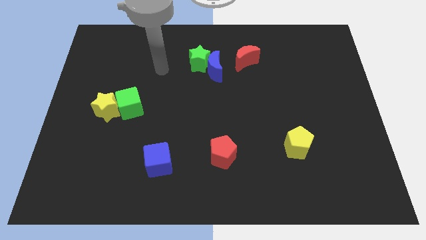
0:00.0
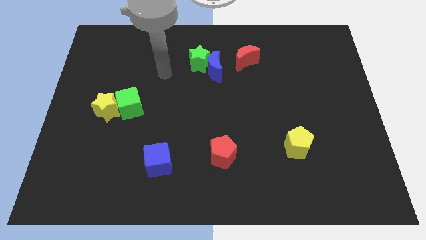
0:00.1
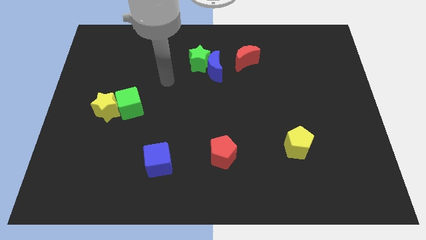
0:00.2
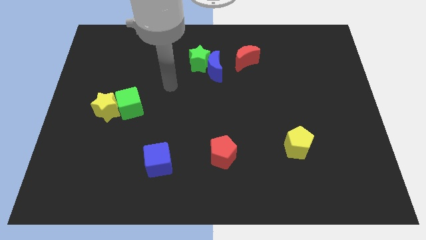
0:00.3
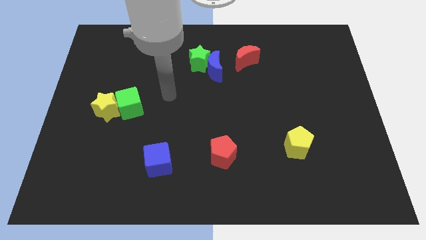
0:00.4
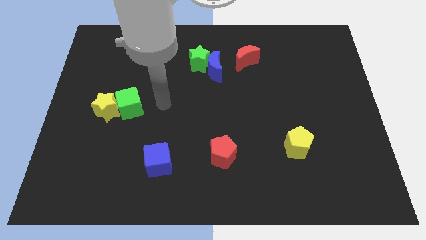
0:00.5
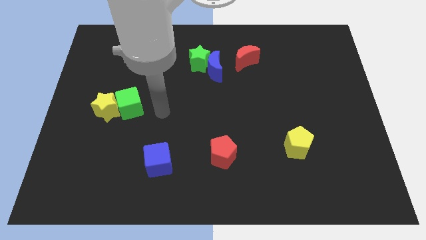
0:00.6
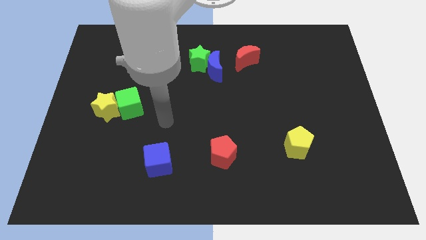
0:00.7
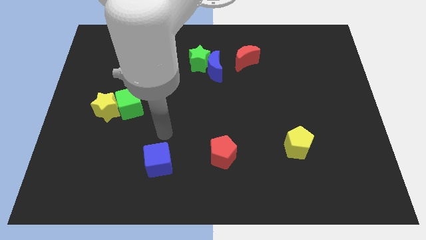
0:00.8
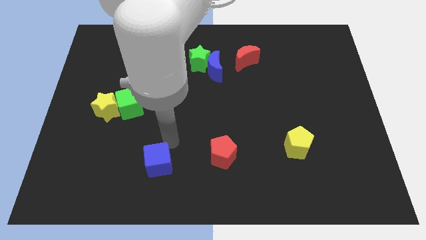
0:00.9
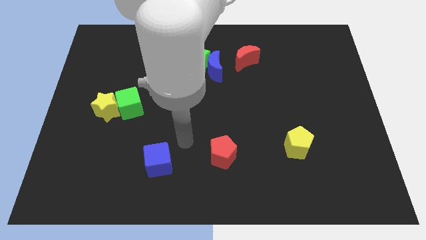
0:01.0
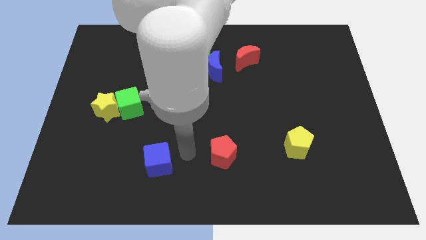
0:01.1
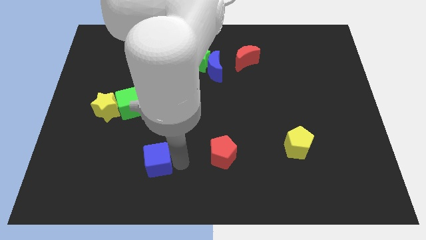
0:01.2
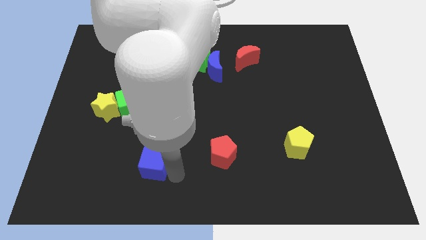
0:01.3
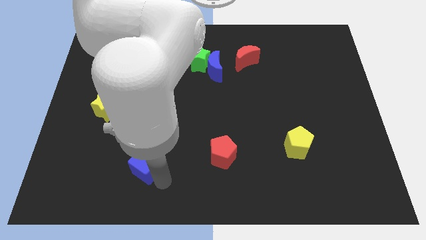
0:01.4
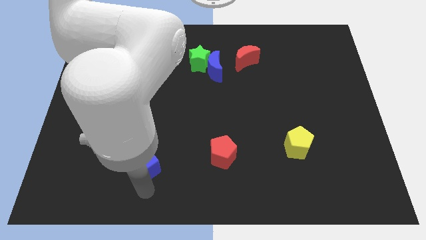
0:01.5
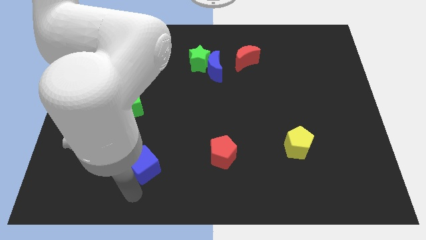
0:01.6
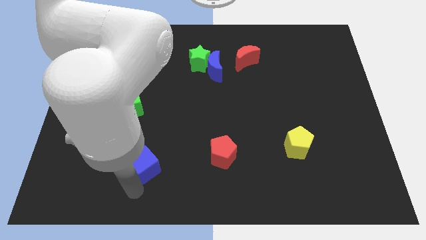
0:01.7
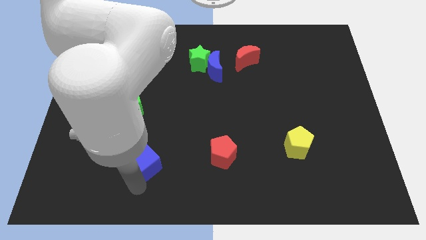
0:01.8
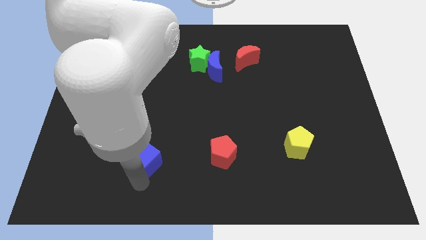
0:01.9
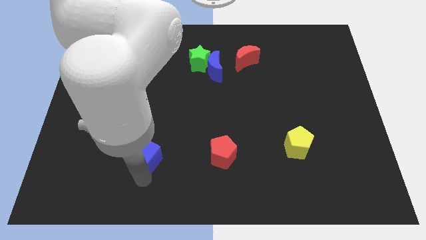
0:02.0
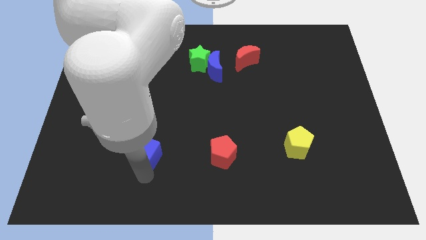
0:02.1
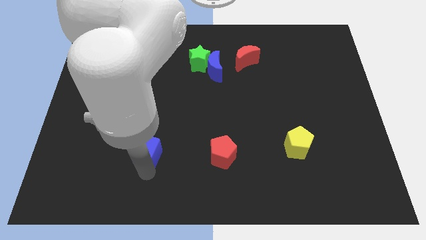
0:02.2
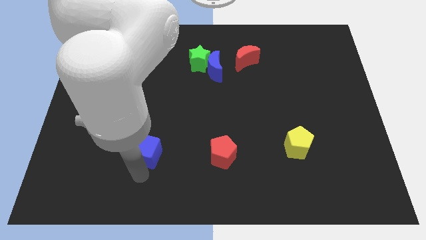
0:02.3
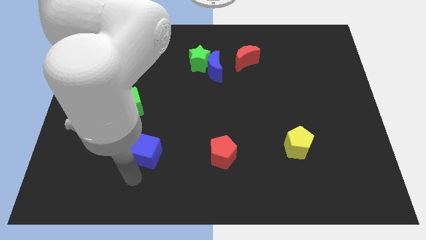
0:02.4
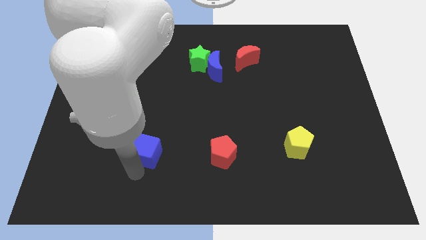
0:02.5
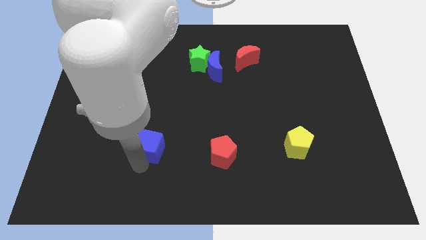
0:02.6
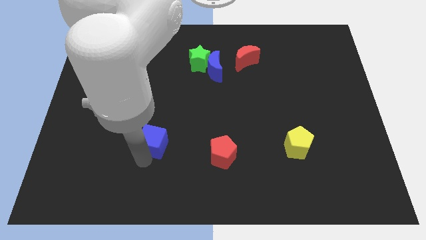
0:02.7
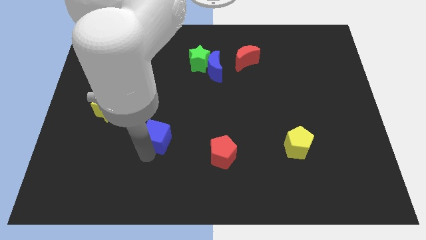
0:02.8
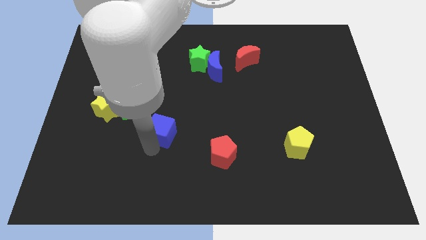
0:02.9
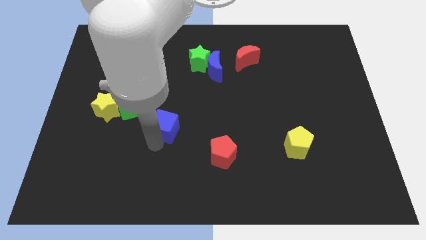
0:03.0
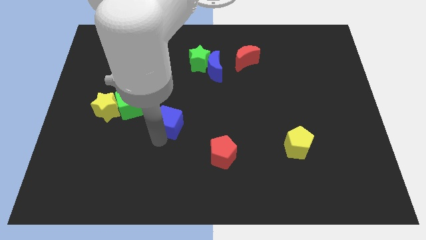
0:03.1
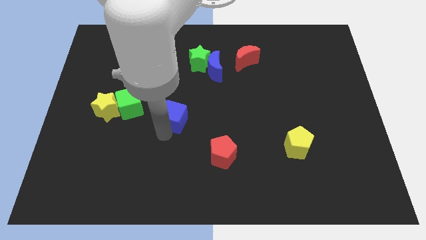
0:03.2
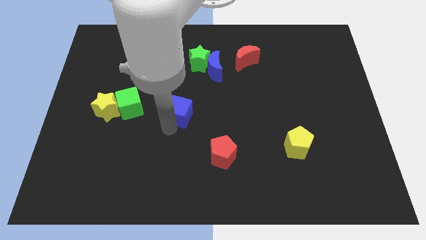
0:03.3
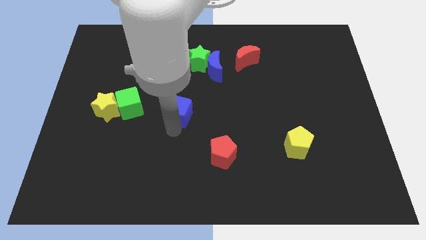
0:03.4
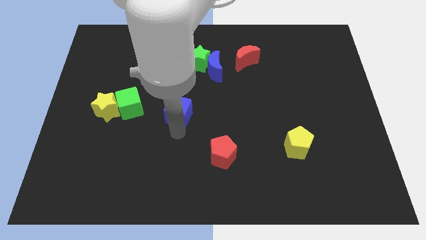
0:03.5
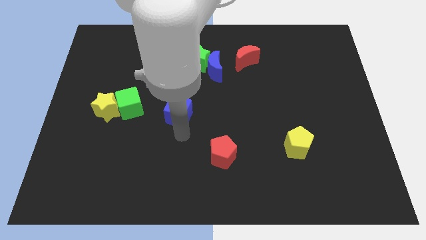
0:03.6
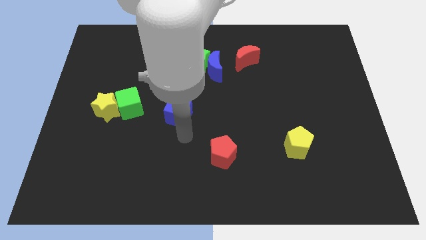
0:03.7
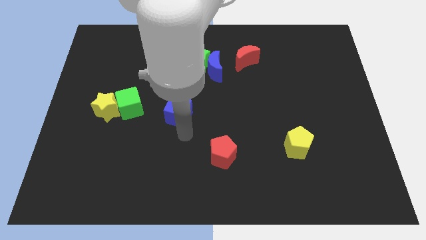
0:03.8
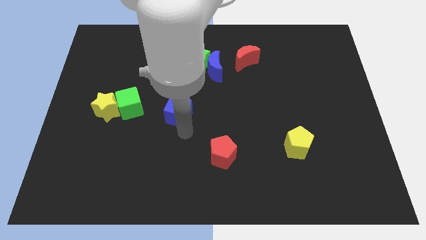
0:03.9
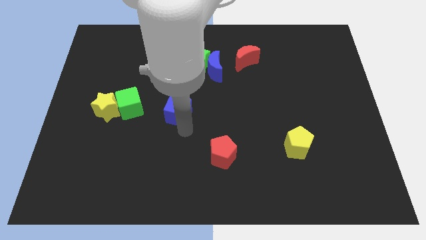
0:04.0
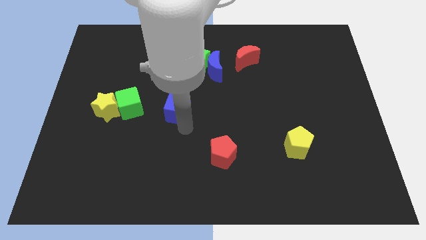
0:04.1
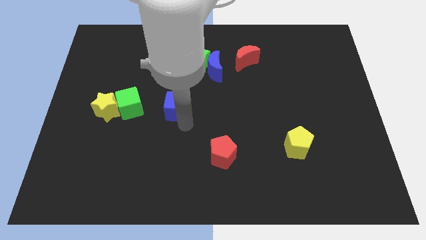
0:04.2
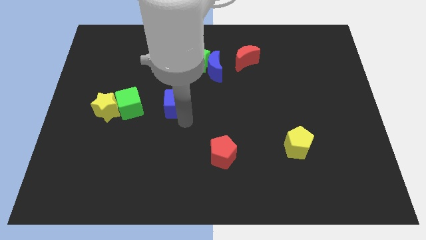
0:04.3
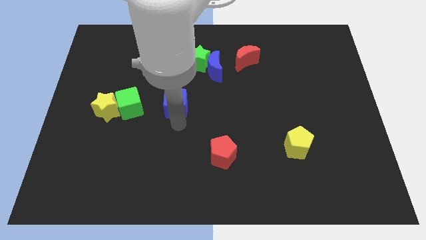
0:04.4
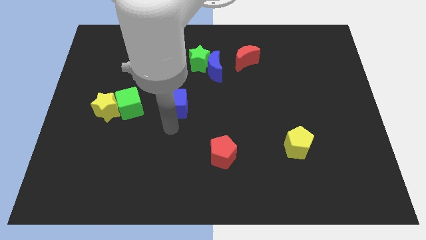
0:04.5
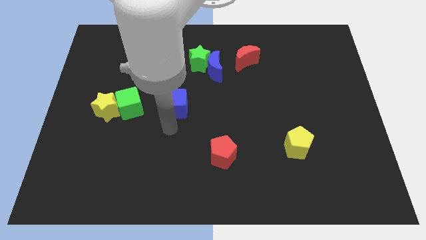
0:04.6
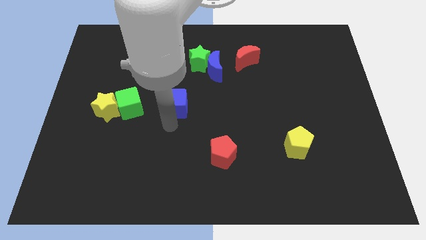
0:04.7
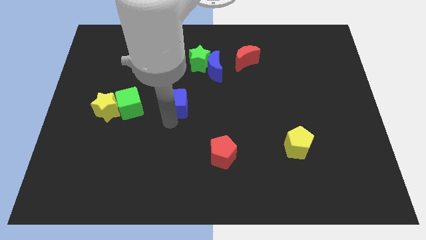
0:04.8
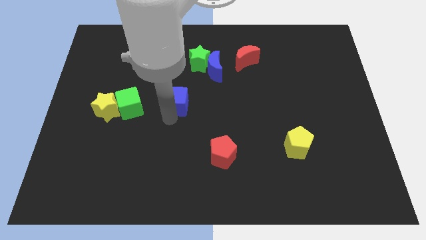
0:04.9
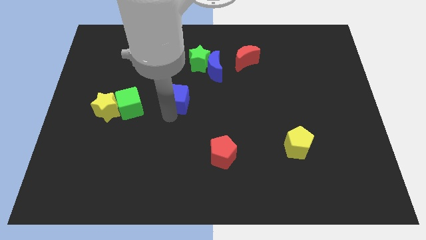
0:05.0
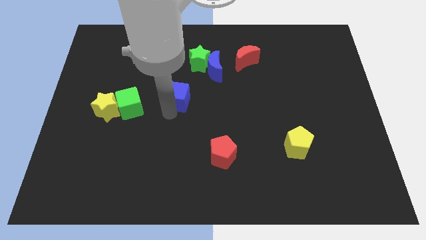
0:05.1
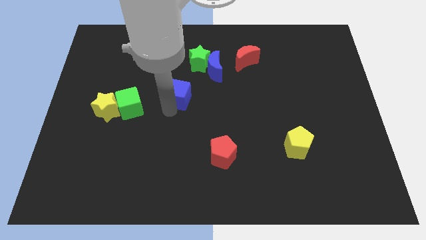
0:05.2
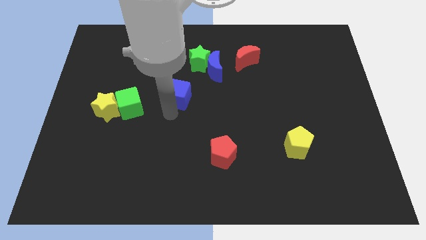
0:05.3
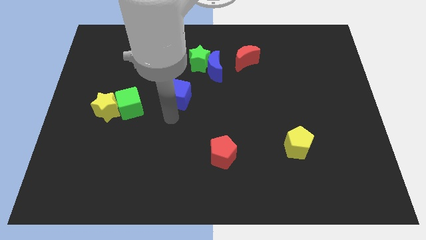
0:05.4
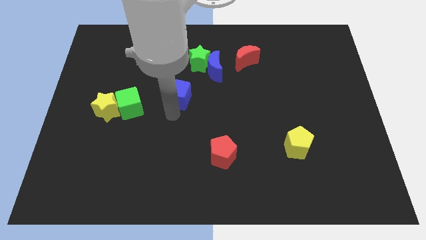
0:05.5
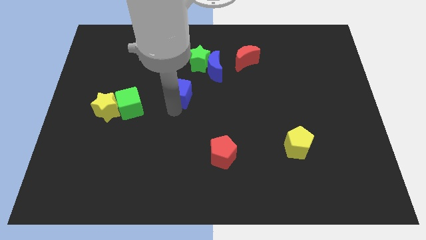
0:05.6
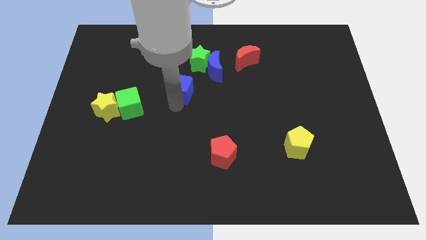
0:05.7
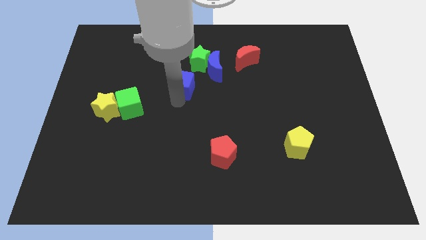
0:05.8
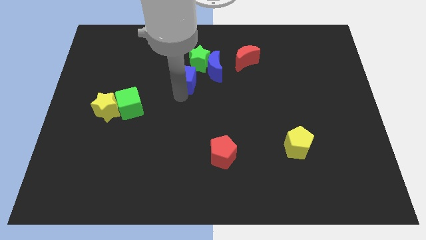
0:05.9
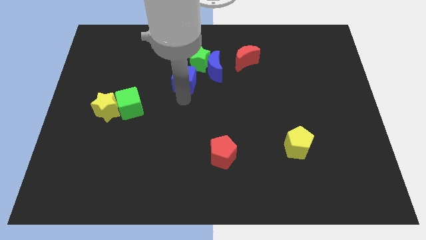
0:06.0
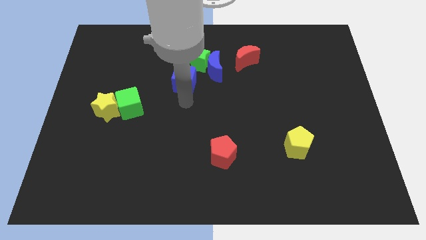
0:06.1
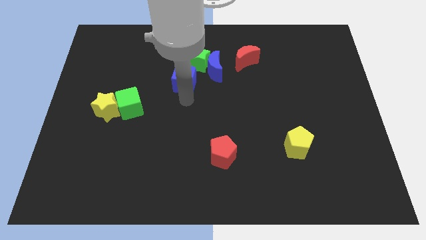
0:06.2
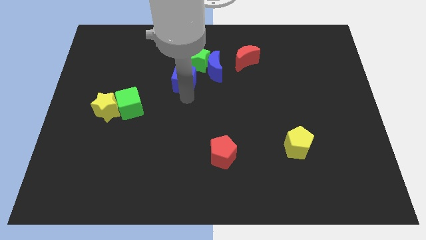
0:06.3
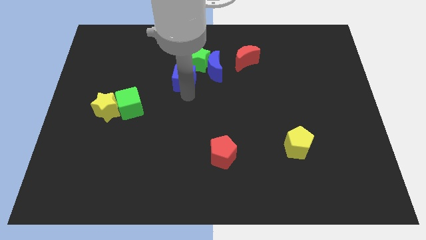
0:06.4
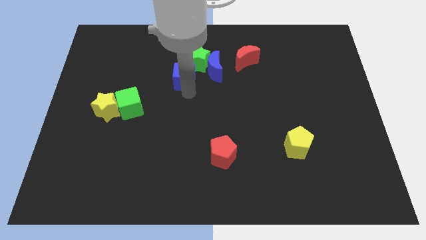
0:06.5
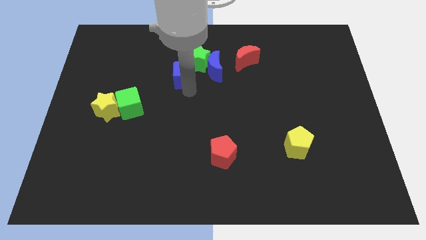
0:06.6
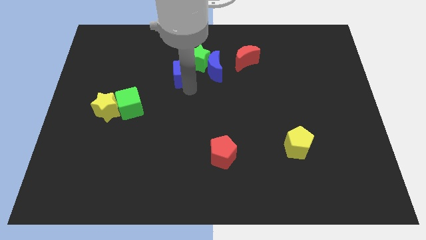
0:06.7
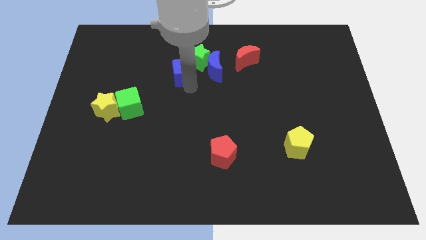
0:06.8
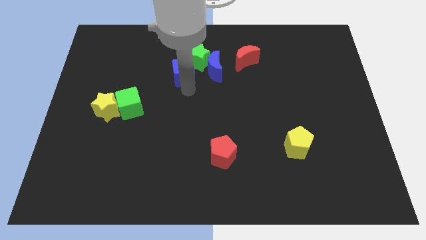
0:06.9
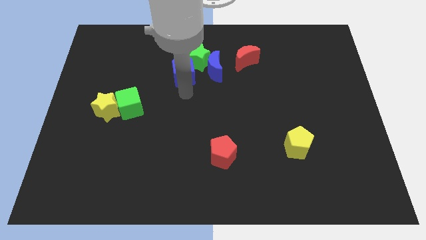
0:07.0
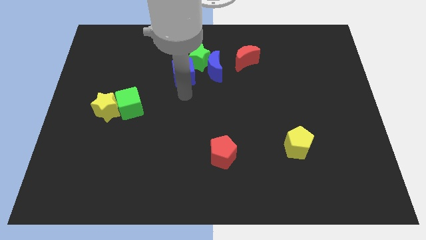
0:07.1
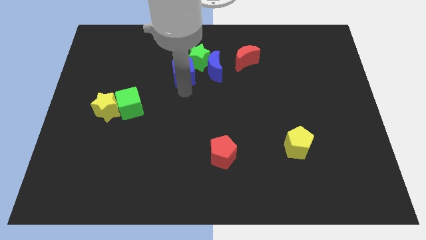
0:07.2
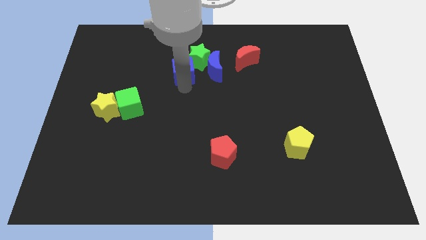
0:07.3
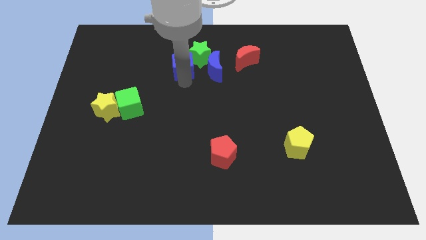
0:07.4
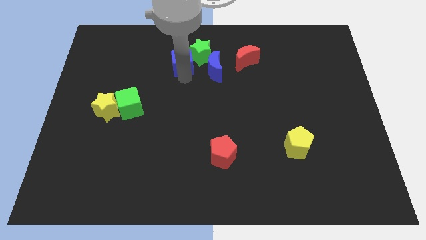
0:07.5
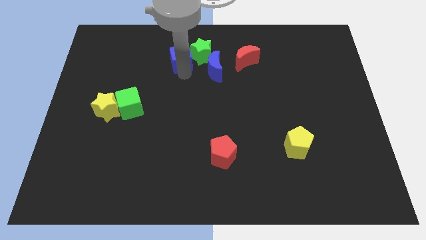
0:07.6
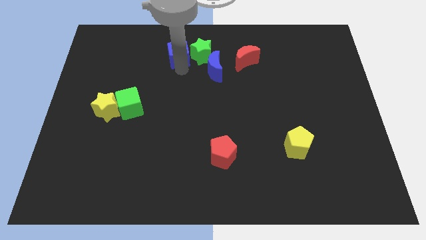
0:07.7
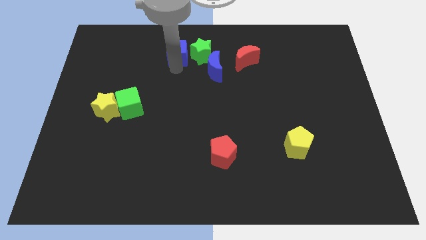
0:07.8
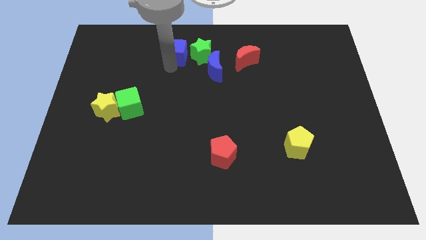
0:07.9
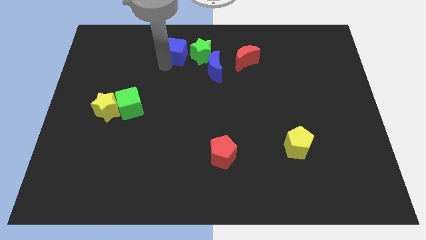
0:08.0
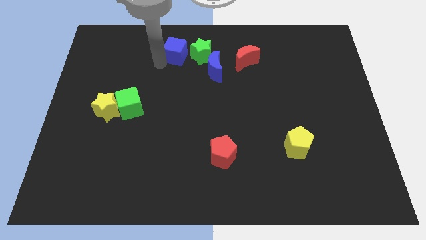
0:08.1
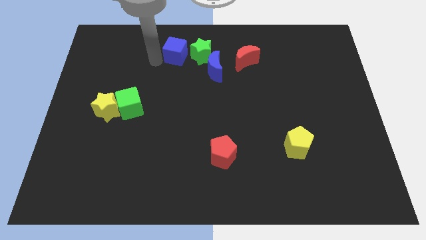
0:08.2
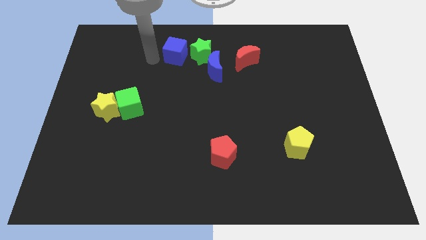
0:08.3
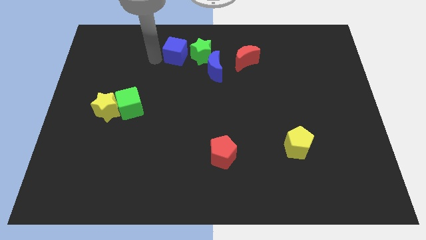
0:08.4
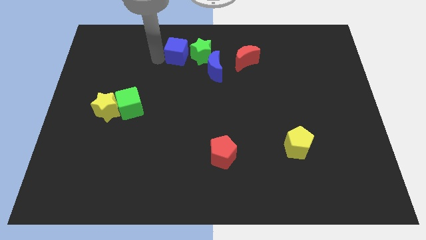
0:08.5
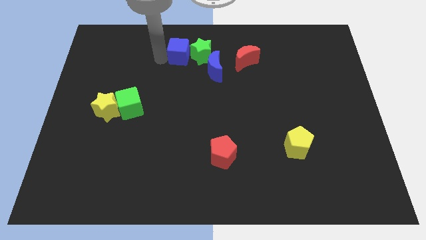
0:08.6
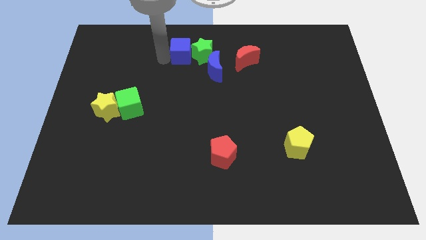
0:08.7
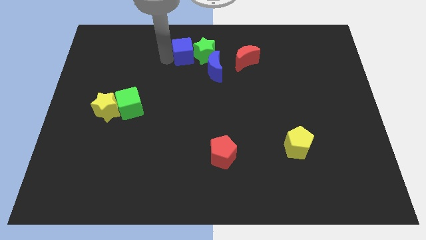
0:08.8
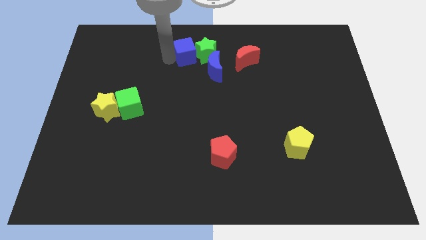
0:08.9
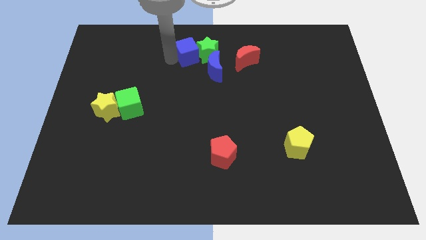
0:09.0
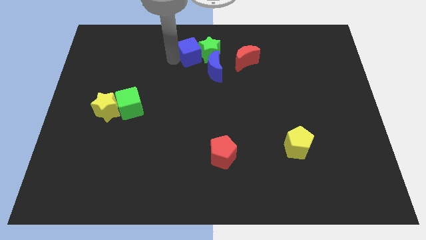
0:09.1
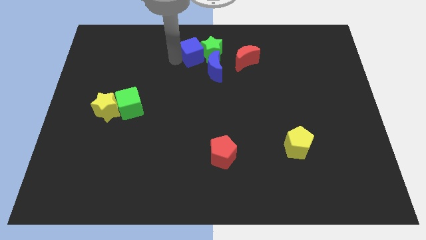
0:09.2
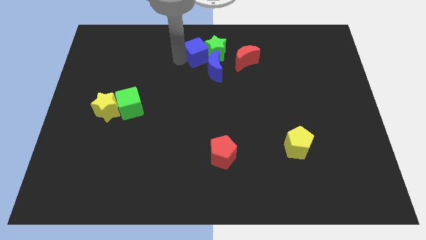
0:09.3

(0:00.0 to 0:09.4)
slide the blue cube to the towards your base
